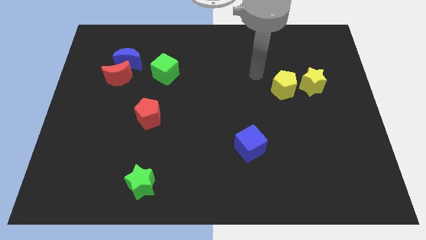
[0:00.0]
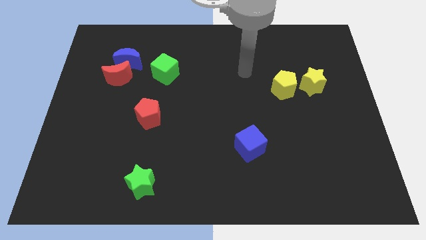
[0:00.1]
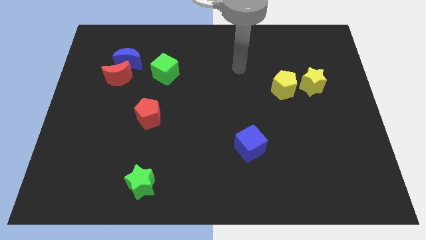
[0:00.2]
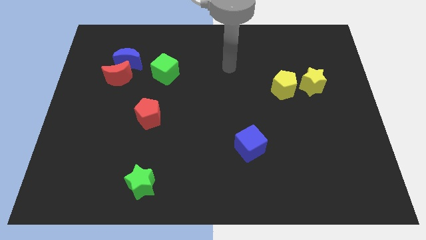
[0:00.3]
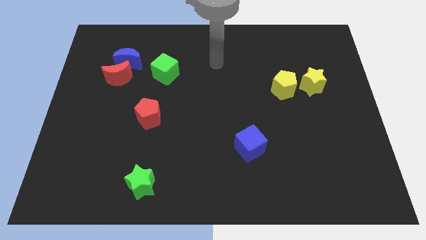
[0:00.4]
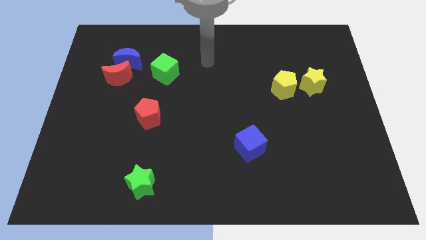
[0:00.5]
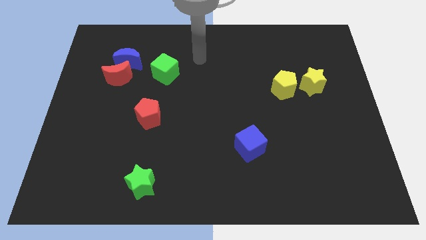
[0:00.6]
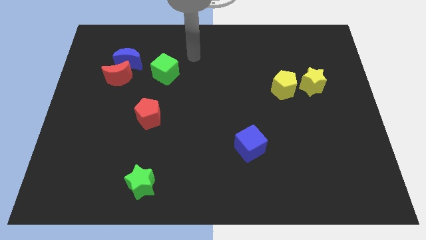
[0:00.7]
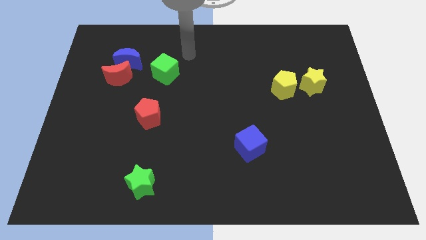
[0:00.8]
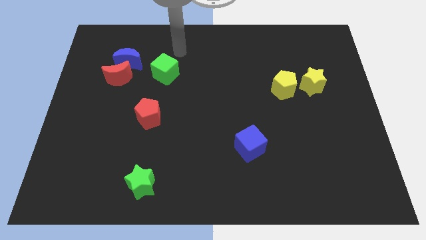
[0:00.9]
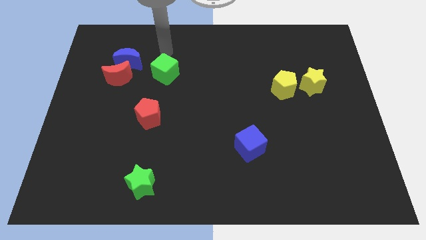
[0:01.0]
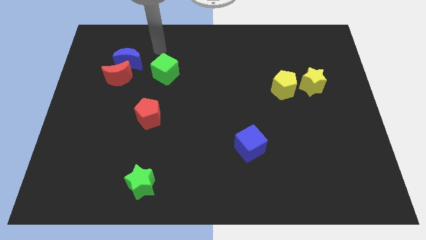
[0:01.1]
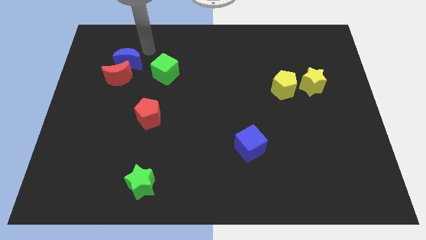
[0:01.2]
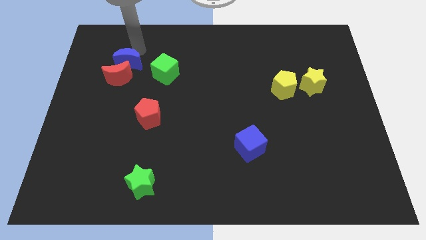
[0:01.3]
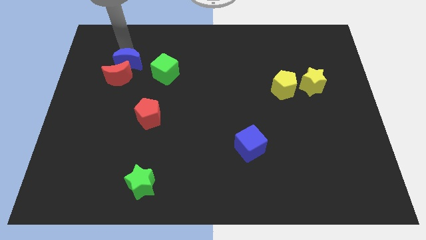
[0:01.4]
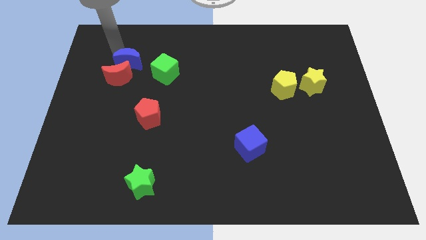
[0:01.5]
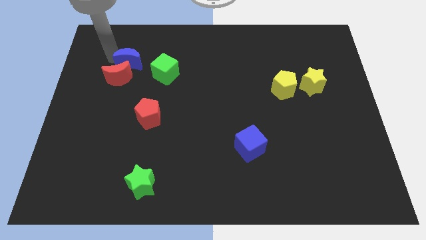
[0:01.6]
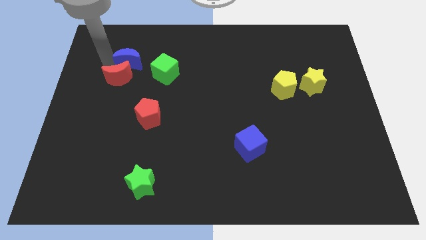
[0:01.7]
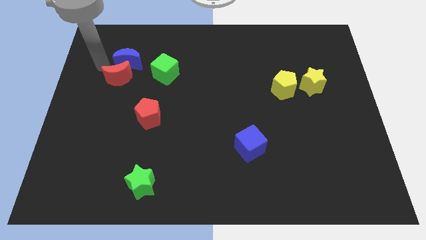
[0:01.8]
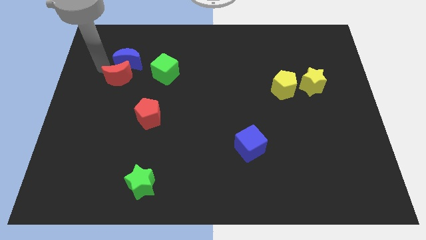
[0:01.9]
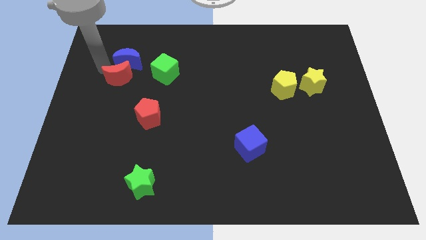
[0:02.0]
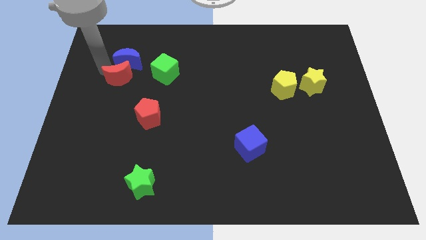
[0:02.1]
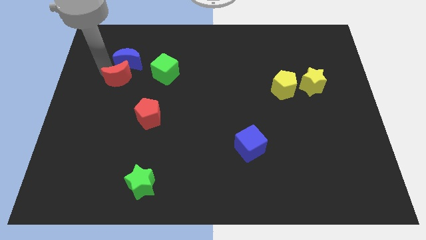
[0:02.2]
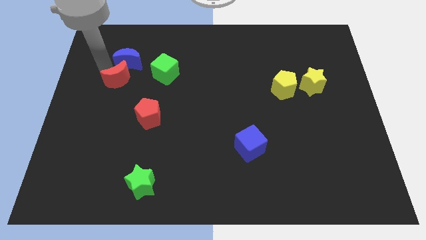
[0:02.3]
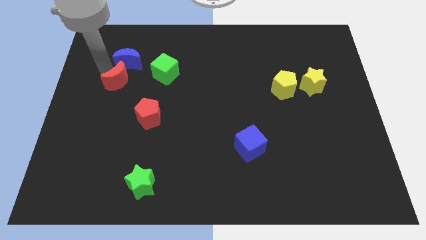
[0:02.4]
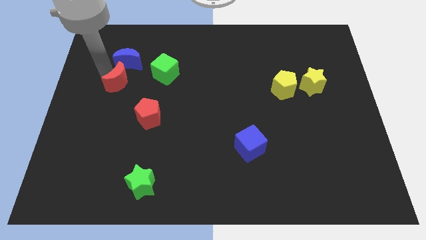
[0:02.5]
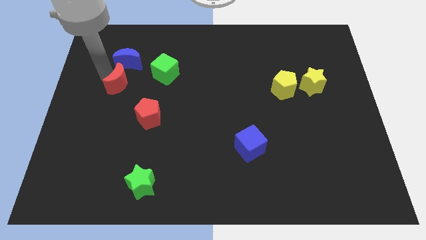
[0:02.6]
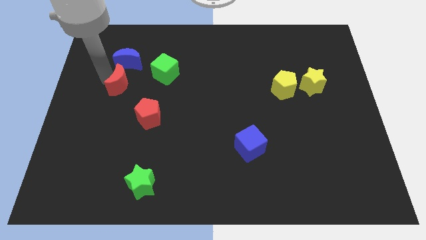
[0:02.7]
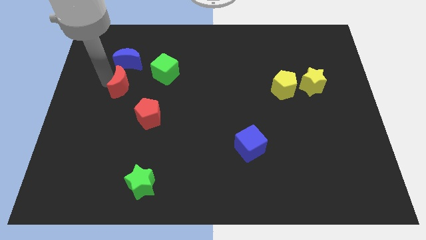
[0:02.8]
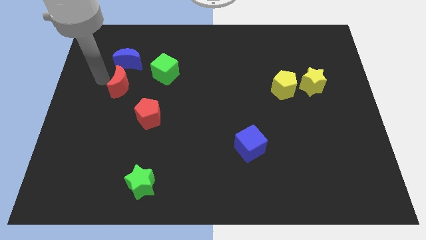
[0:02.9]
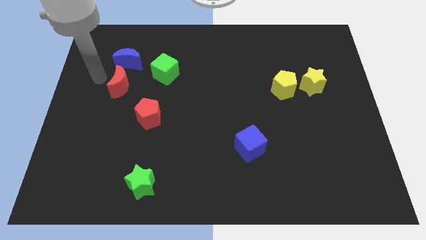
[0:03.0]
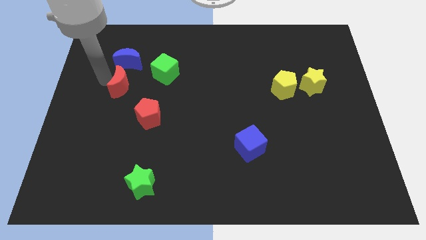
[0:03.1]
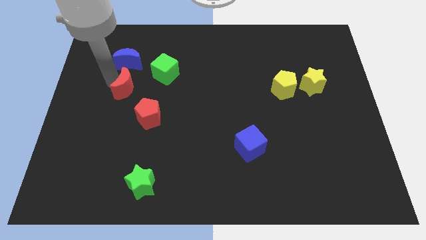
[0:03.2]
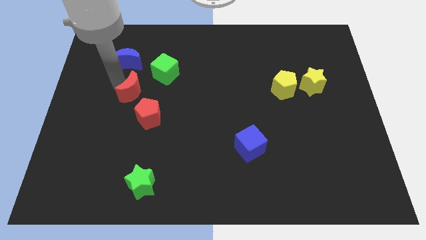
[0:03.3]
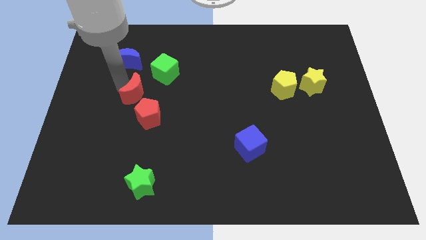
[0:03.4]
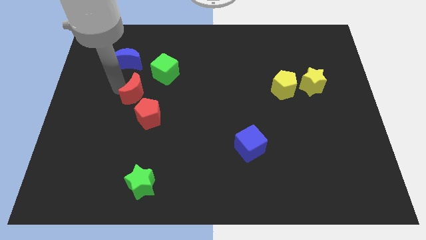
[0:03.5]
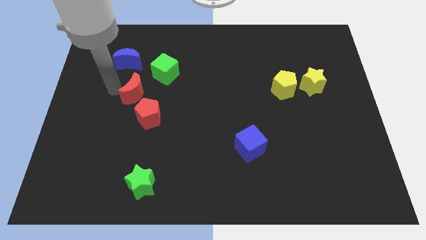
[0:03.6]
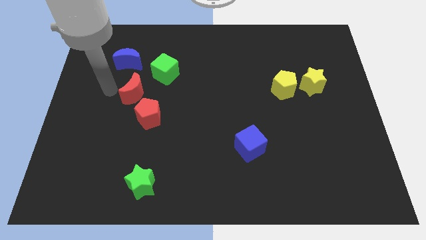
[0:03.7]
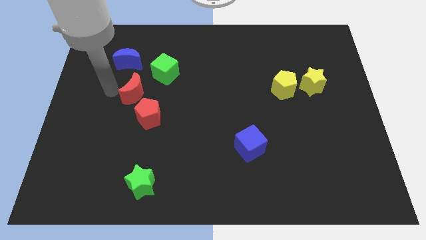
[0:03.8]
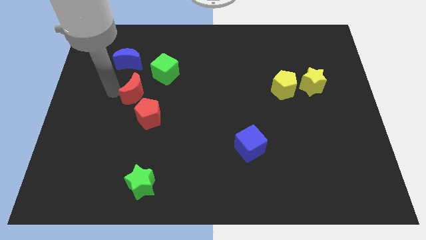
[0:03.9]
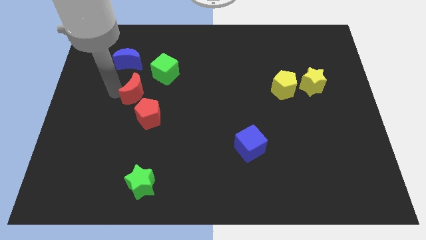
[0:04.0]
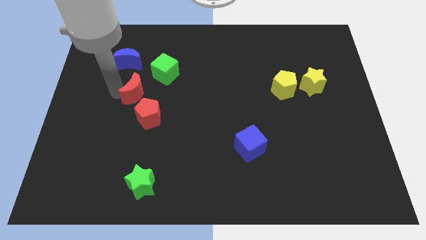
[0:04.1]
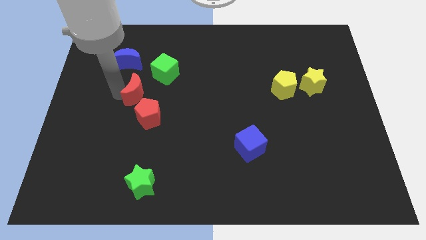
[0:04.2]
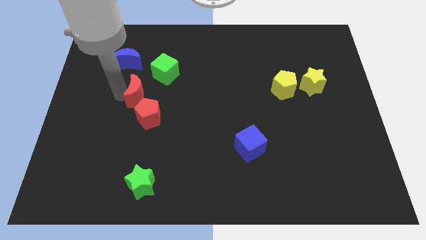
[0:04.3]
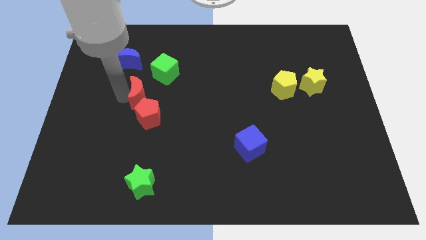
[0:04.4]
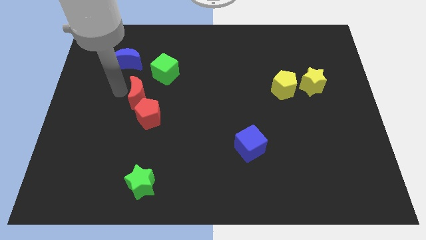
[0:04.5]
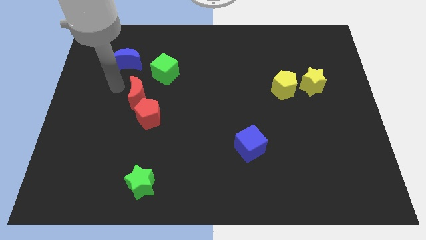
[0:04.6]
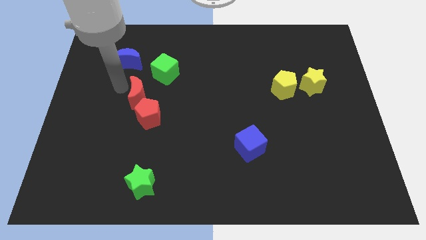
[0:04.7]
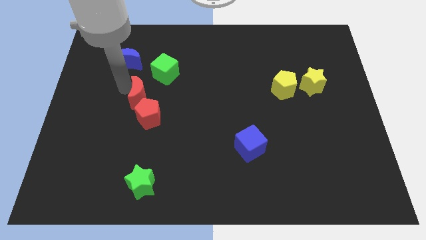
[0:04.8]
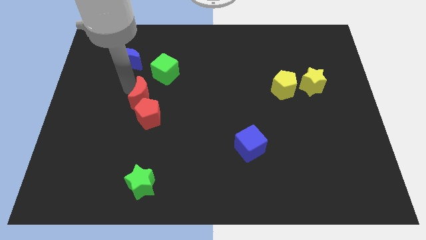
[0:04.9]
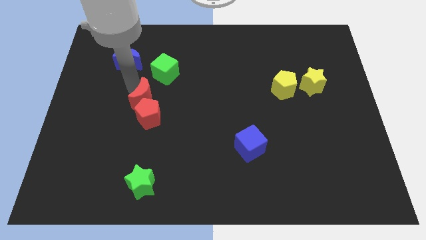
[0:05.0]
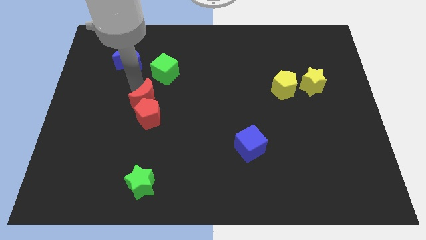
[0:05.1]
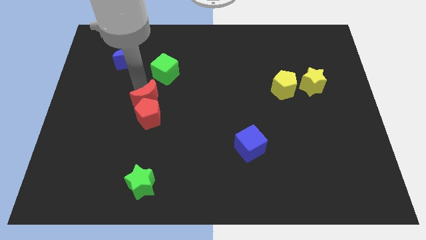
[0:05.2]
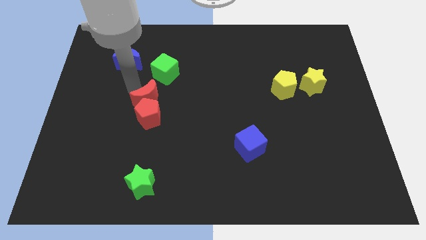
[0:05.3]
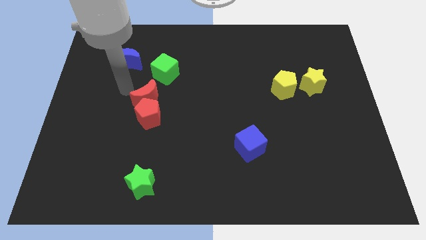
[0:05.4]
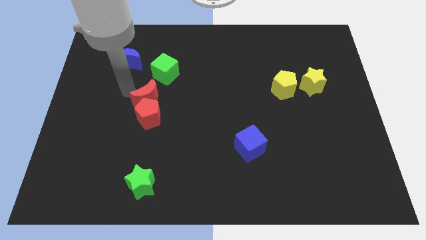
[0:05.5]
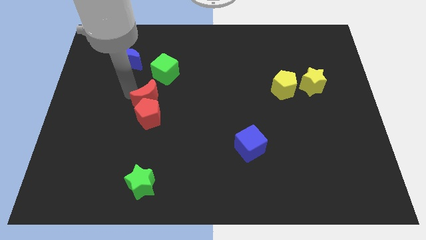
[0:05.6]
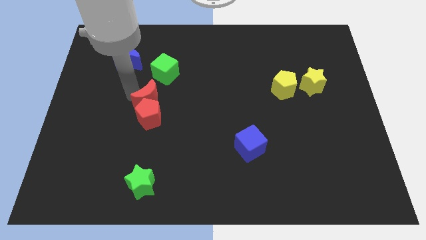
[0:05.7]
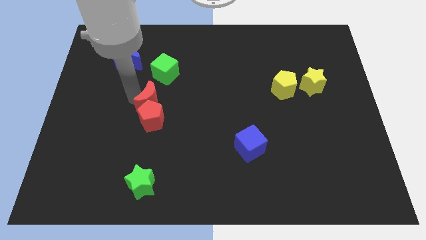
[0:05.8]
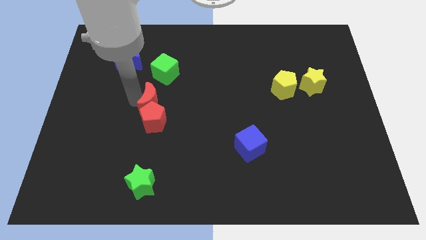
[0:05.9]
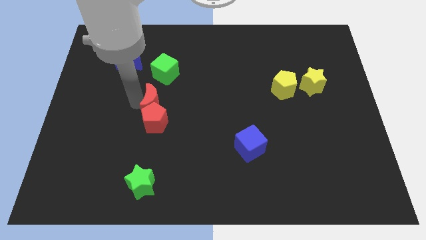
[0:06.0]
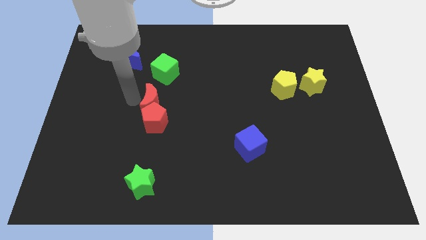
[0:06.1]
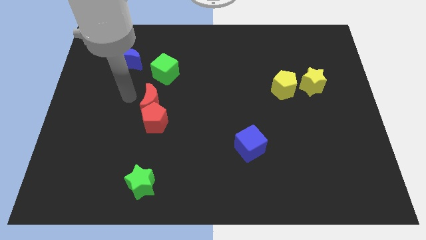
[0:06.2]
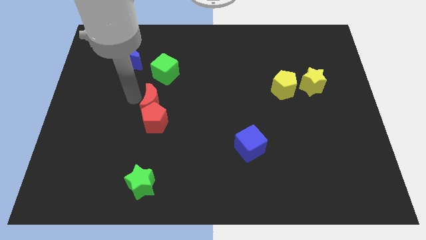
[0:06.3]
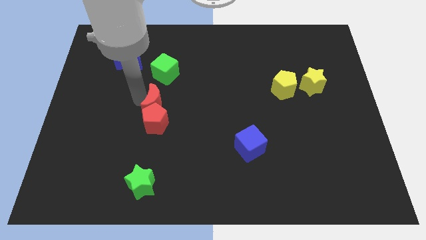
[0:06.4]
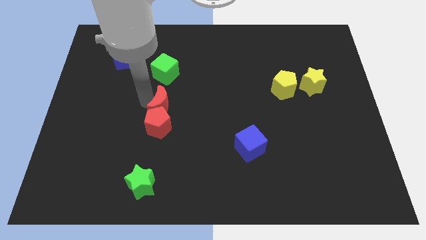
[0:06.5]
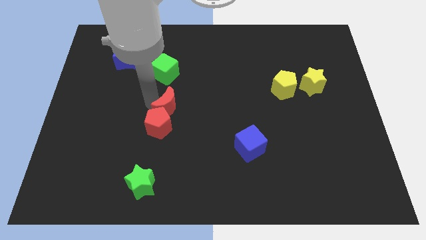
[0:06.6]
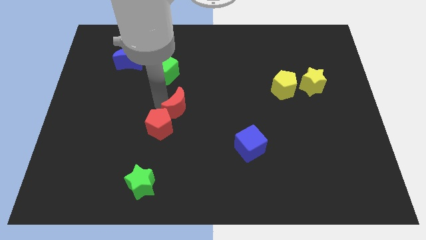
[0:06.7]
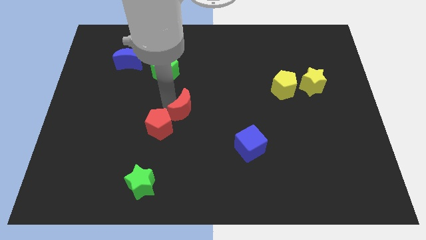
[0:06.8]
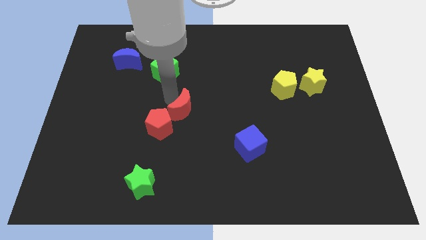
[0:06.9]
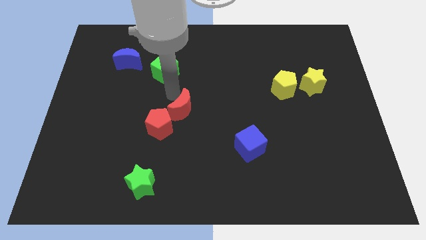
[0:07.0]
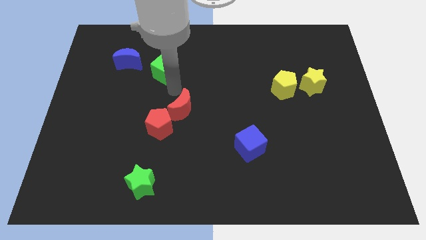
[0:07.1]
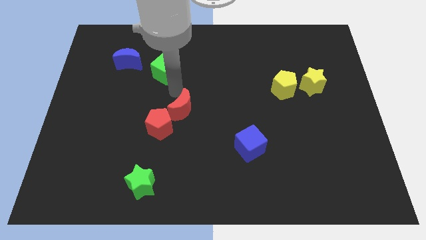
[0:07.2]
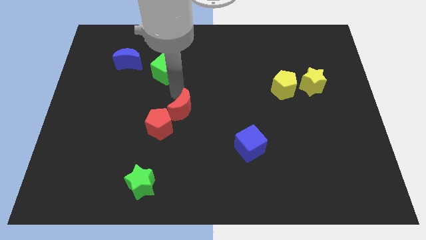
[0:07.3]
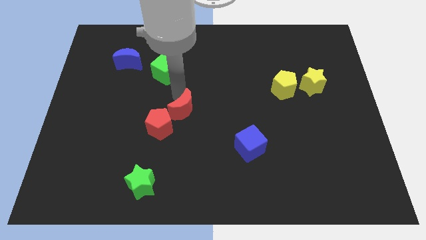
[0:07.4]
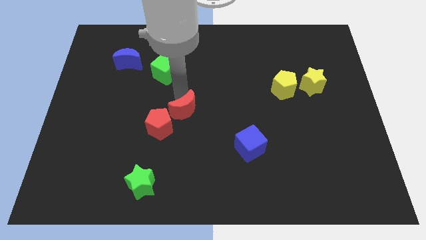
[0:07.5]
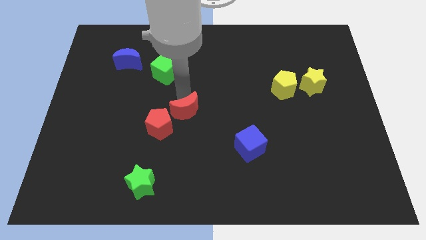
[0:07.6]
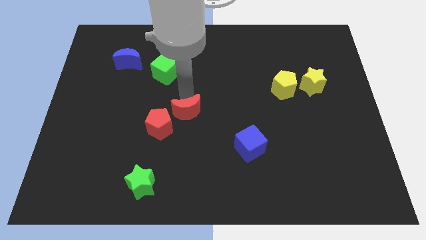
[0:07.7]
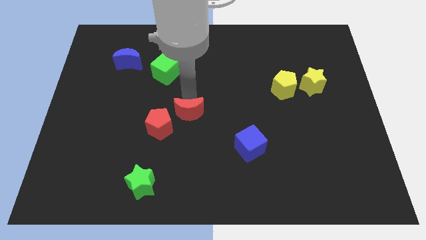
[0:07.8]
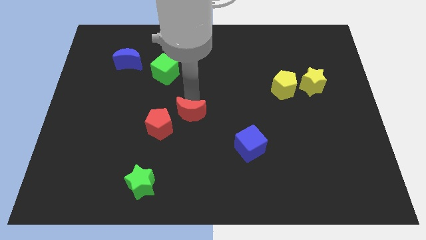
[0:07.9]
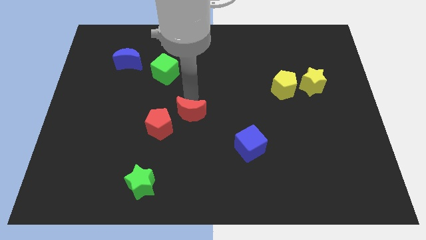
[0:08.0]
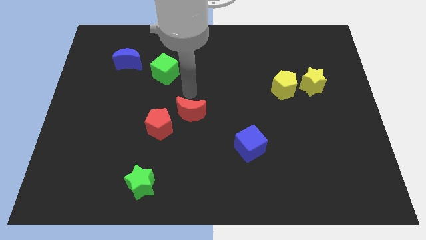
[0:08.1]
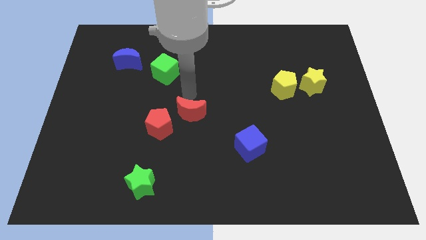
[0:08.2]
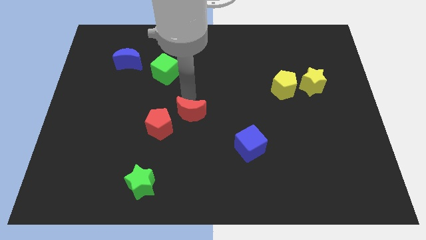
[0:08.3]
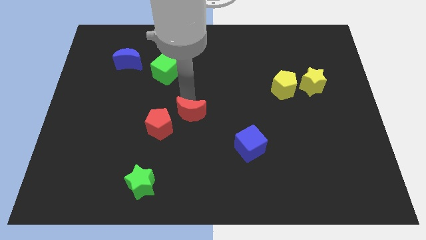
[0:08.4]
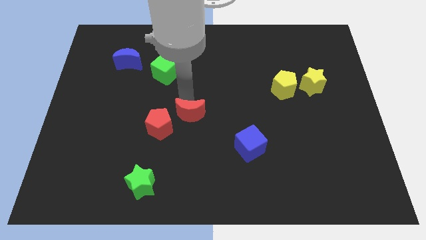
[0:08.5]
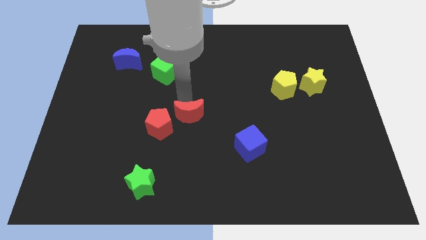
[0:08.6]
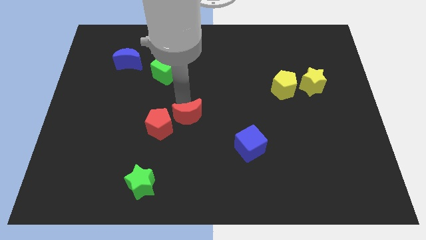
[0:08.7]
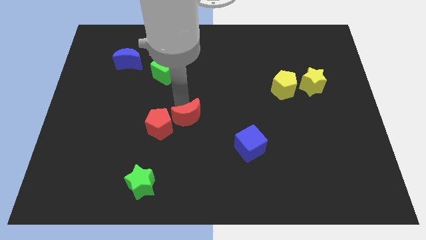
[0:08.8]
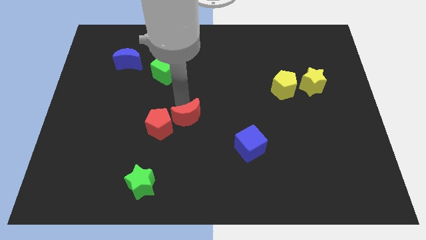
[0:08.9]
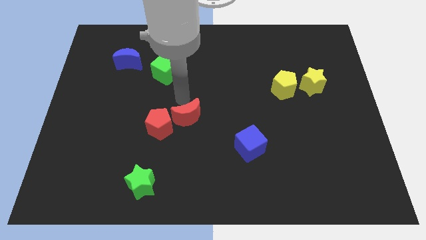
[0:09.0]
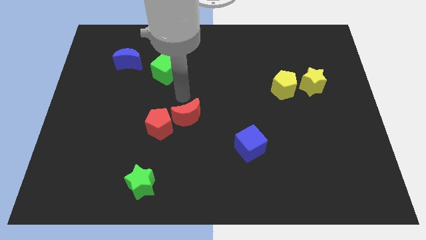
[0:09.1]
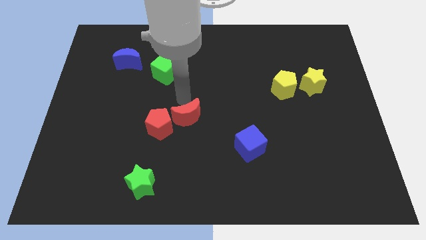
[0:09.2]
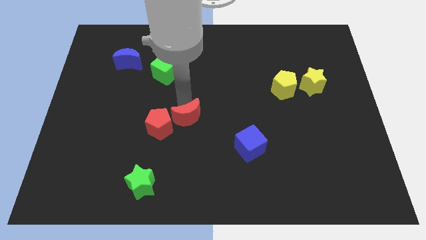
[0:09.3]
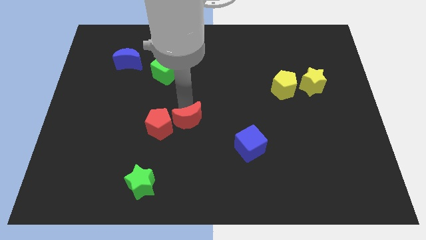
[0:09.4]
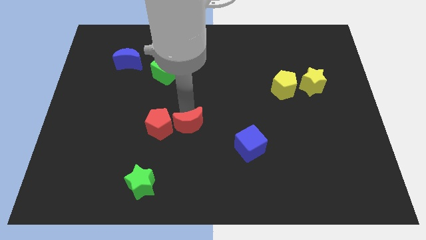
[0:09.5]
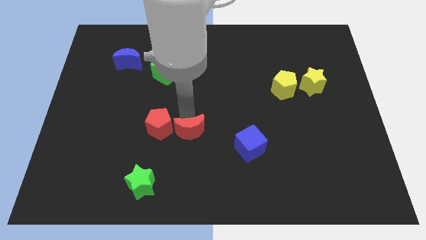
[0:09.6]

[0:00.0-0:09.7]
put the red moon left of the blue cube
